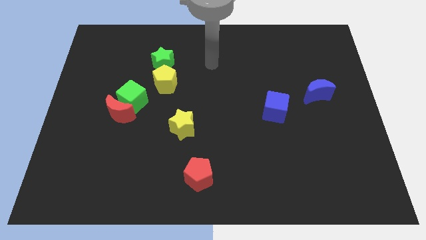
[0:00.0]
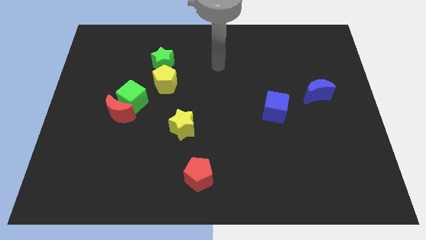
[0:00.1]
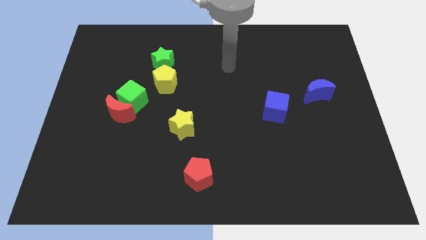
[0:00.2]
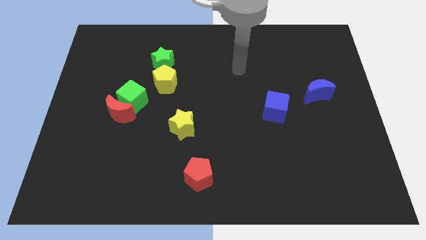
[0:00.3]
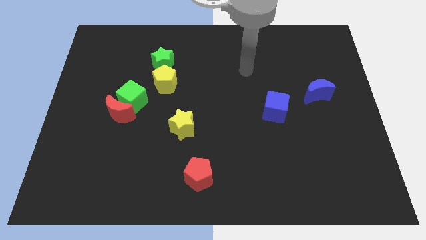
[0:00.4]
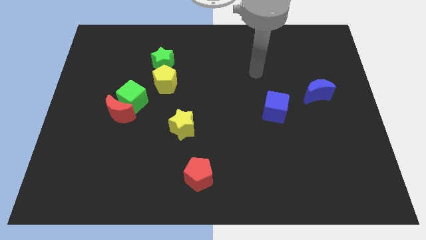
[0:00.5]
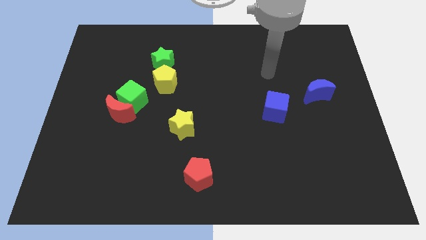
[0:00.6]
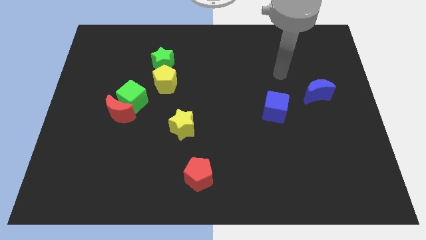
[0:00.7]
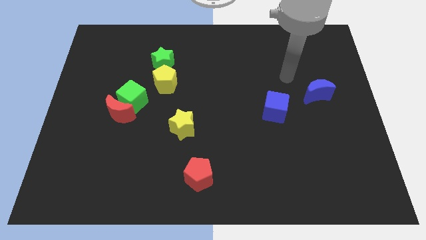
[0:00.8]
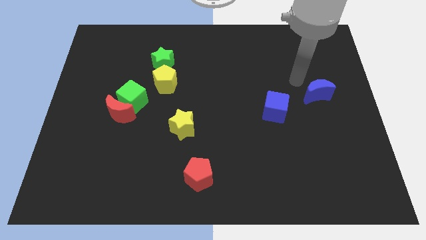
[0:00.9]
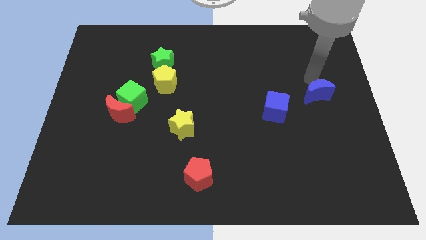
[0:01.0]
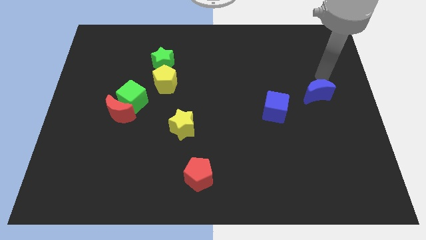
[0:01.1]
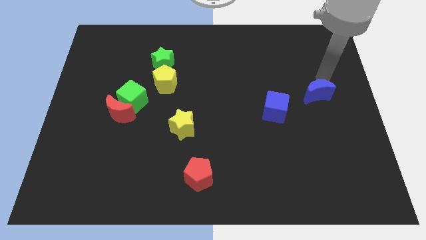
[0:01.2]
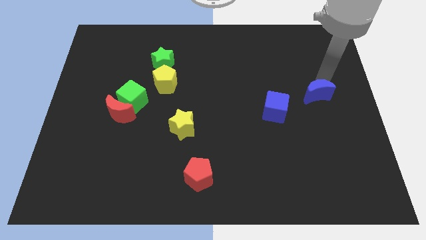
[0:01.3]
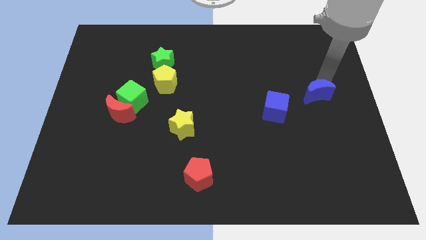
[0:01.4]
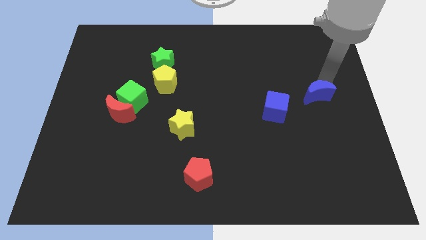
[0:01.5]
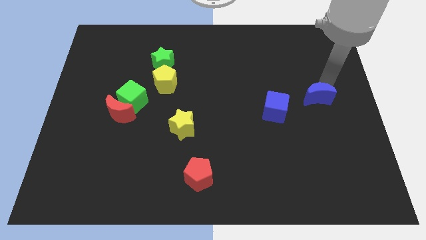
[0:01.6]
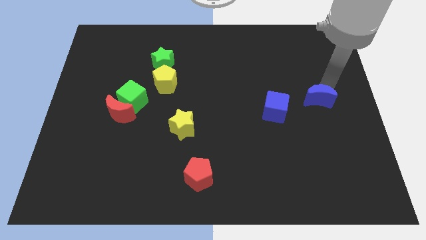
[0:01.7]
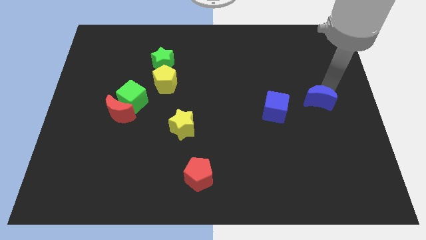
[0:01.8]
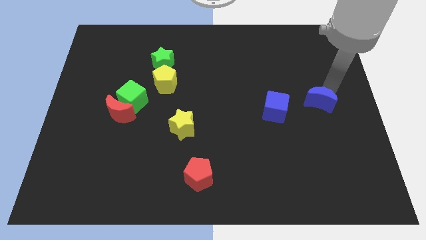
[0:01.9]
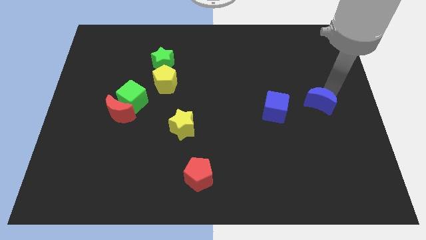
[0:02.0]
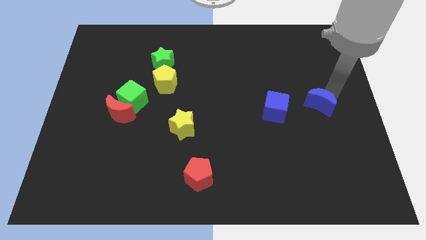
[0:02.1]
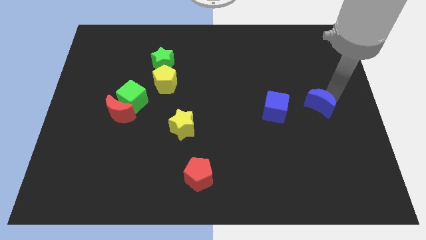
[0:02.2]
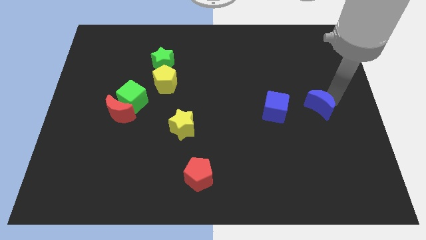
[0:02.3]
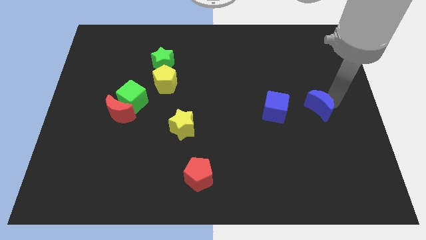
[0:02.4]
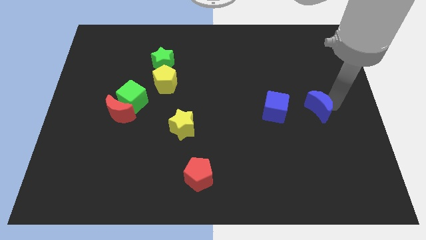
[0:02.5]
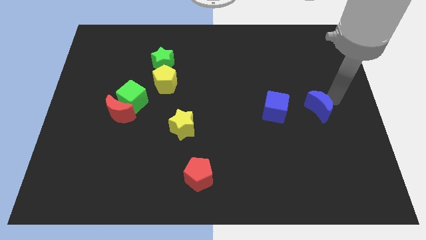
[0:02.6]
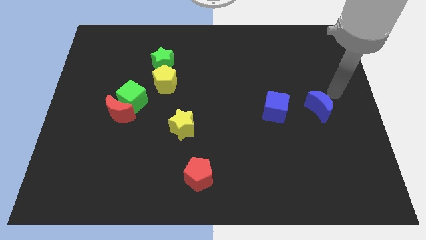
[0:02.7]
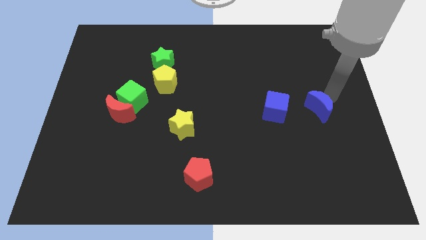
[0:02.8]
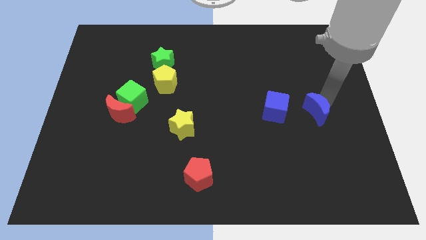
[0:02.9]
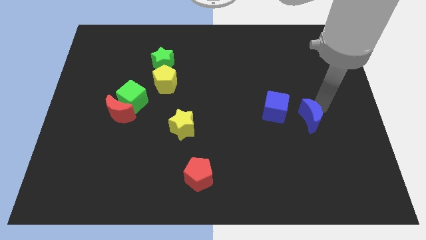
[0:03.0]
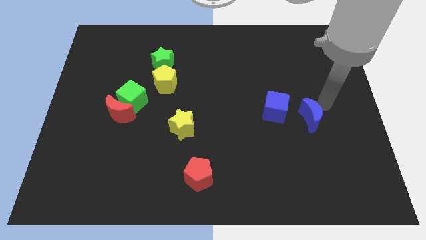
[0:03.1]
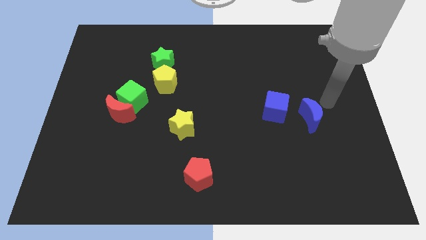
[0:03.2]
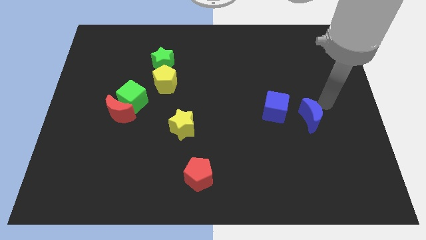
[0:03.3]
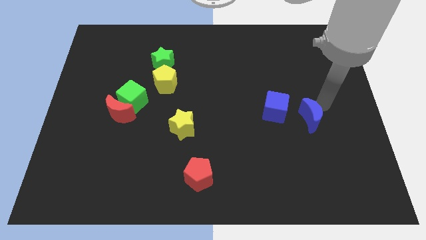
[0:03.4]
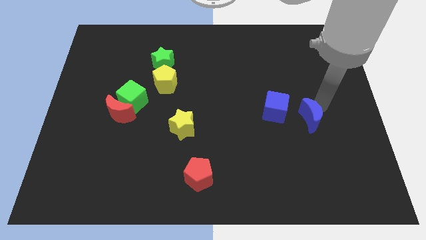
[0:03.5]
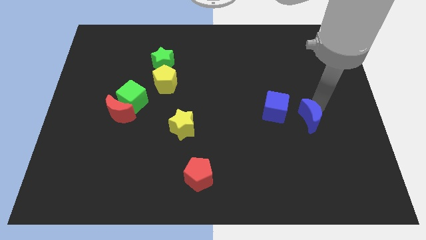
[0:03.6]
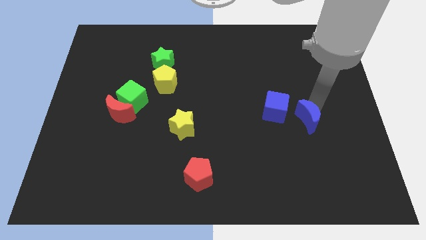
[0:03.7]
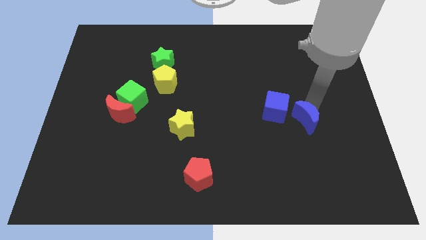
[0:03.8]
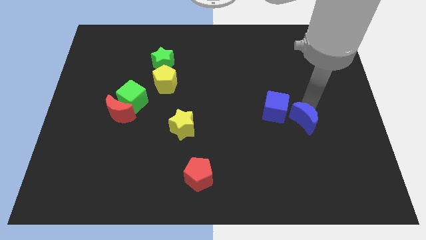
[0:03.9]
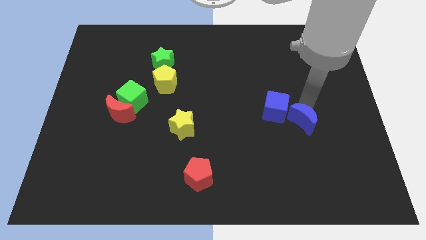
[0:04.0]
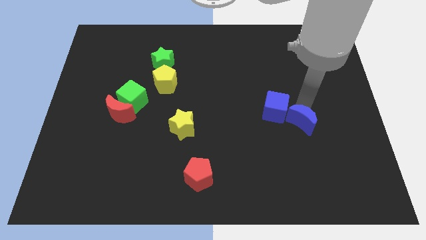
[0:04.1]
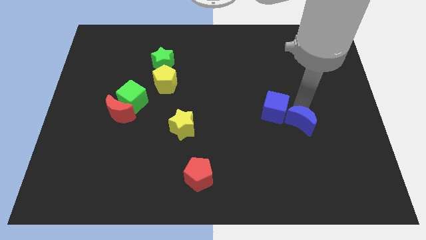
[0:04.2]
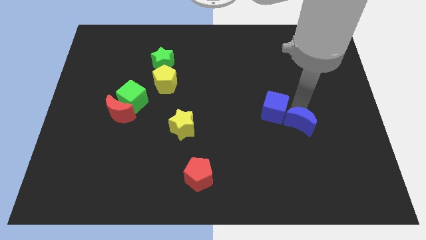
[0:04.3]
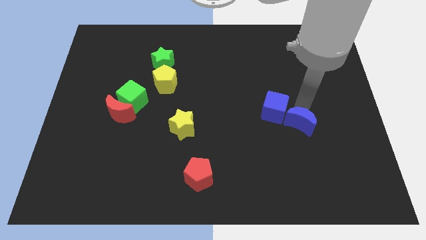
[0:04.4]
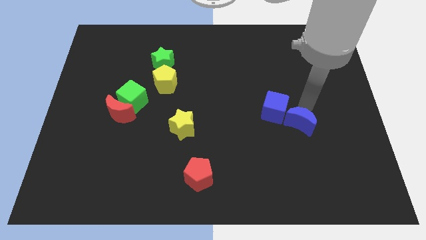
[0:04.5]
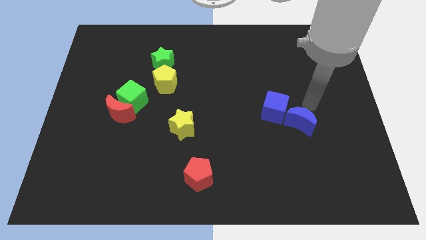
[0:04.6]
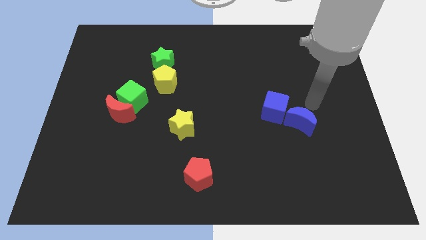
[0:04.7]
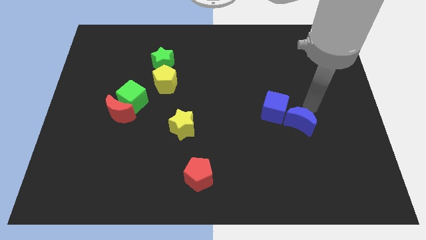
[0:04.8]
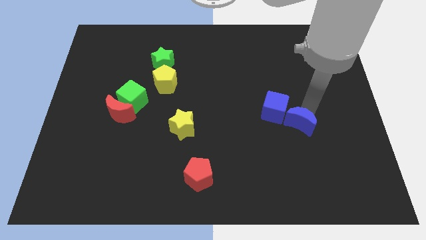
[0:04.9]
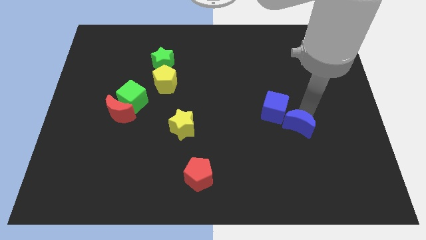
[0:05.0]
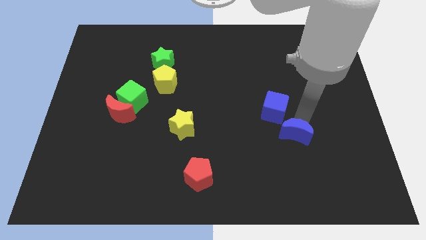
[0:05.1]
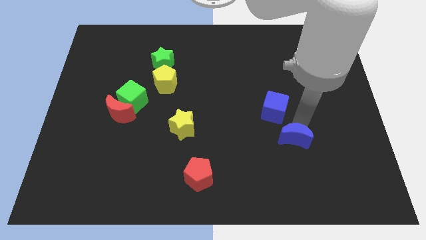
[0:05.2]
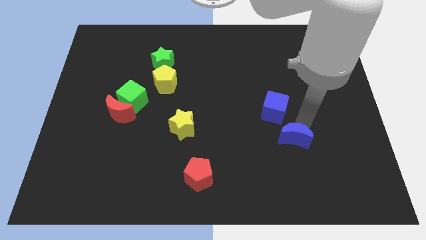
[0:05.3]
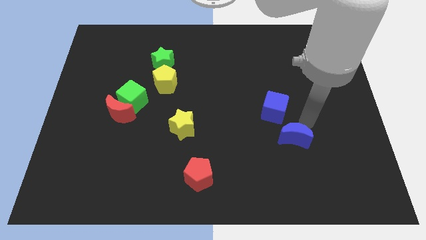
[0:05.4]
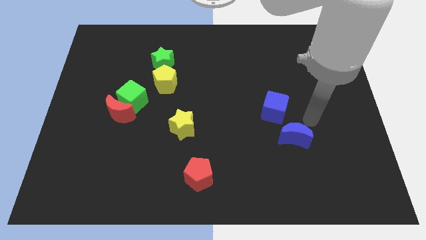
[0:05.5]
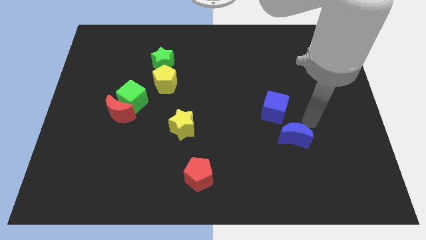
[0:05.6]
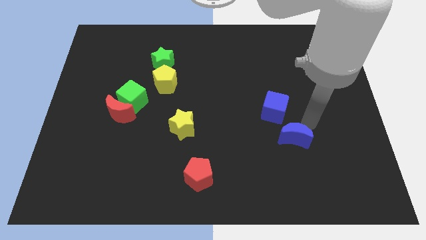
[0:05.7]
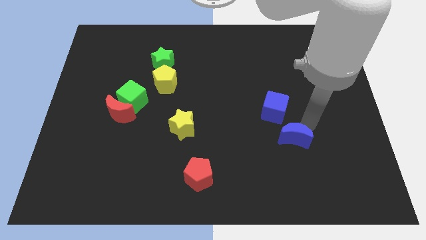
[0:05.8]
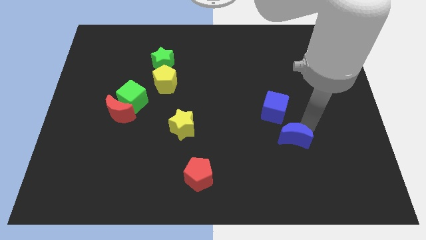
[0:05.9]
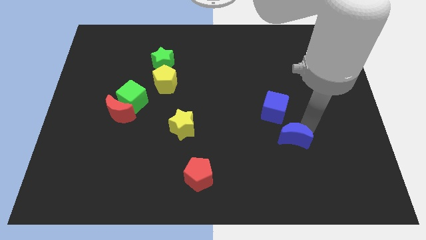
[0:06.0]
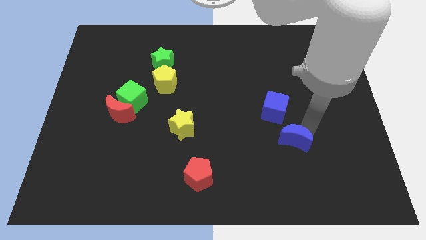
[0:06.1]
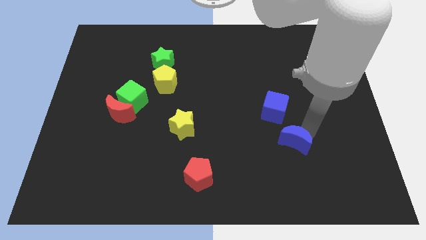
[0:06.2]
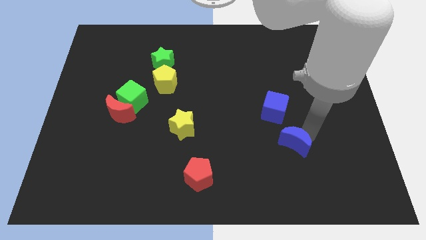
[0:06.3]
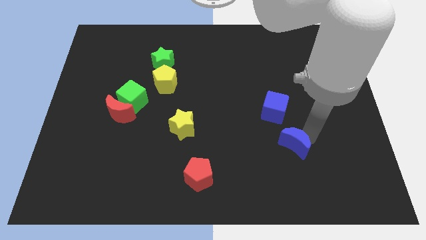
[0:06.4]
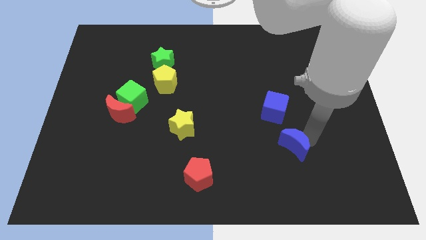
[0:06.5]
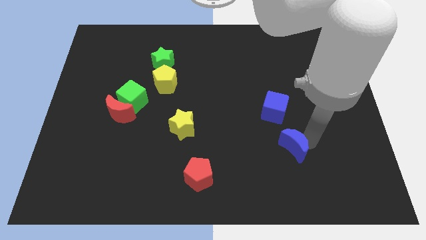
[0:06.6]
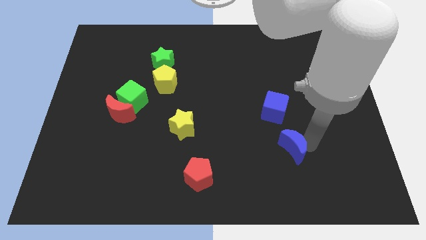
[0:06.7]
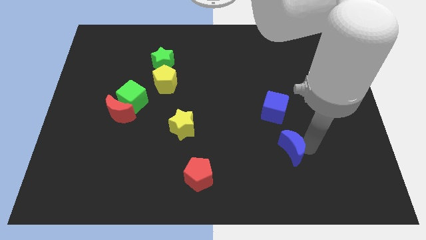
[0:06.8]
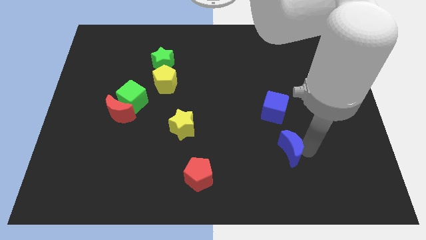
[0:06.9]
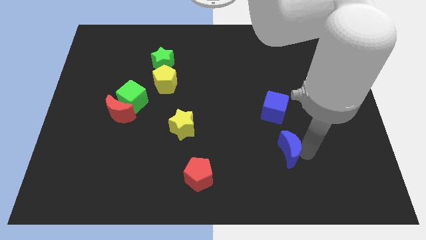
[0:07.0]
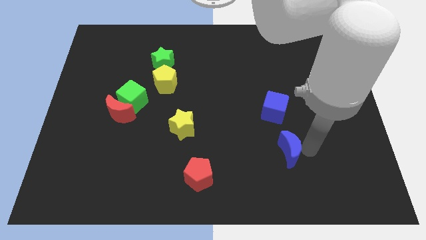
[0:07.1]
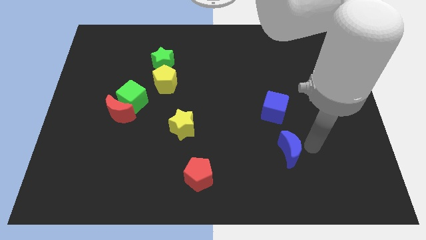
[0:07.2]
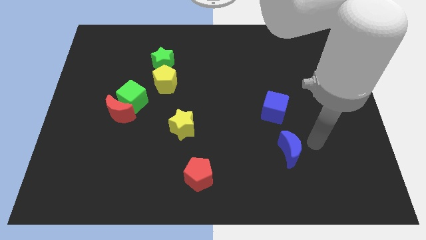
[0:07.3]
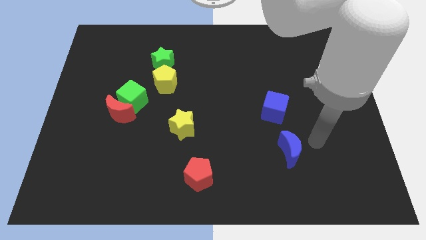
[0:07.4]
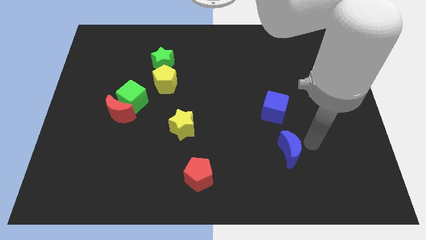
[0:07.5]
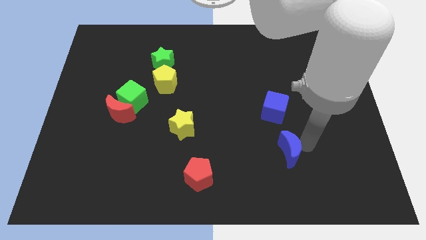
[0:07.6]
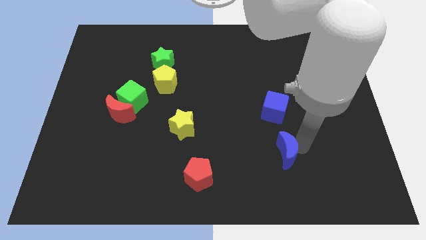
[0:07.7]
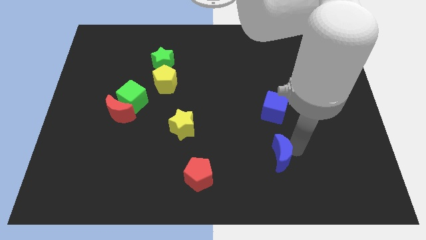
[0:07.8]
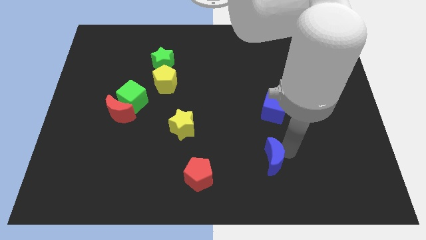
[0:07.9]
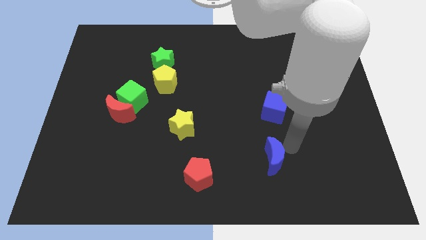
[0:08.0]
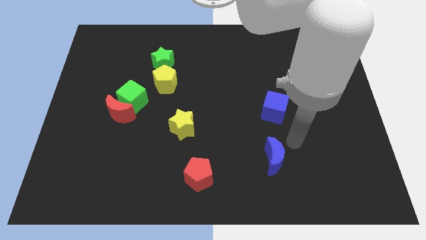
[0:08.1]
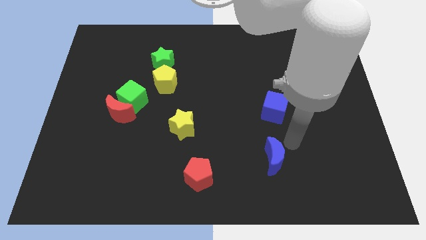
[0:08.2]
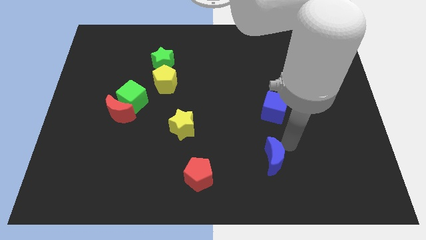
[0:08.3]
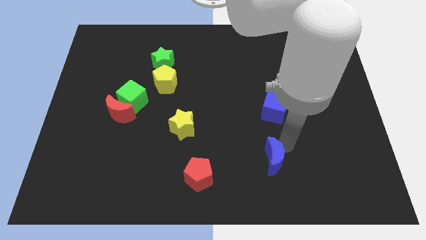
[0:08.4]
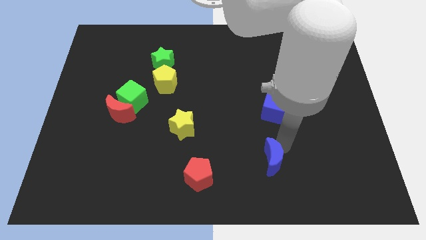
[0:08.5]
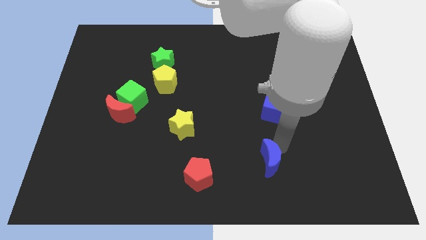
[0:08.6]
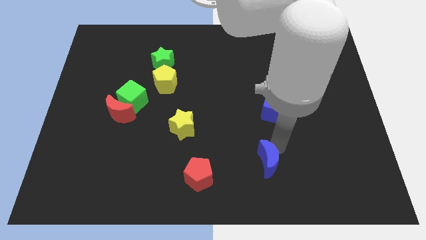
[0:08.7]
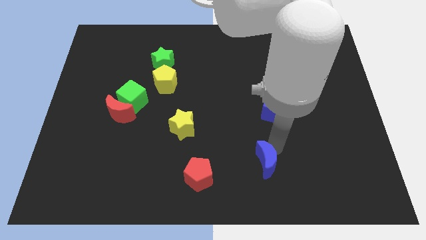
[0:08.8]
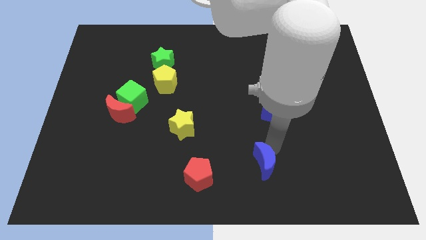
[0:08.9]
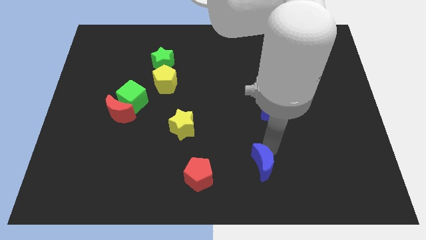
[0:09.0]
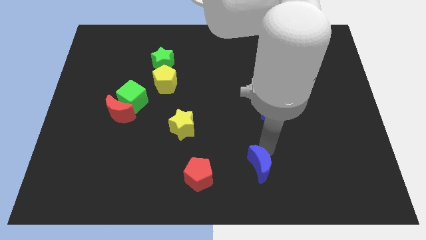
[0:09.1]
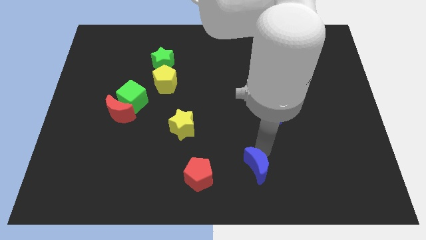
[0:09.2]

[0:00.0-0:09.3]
slide the blue moon to the bottom side
